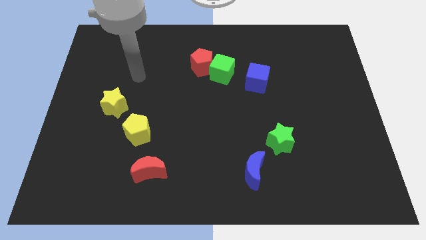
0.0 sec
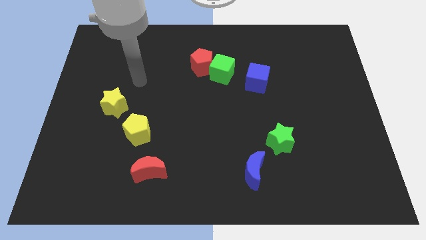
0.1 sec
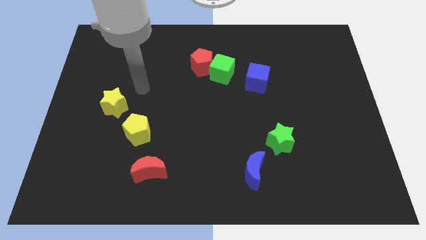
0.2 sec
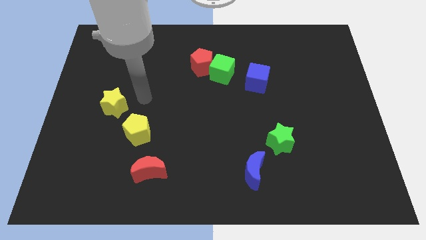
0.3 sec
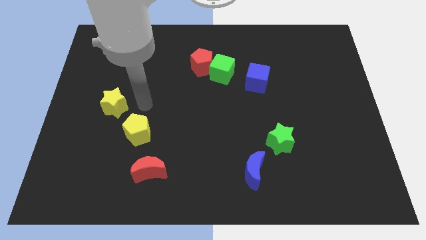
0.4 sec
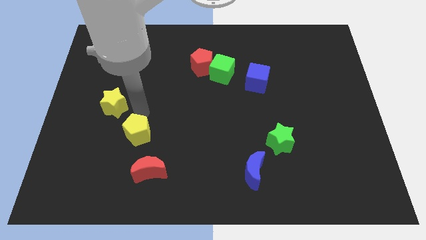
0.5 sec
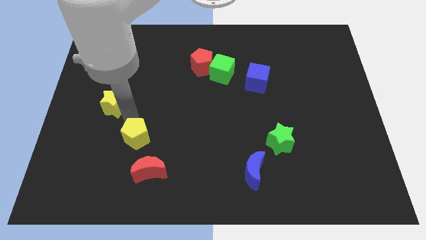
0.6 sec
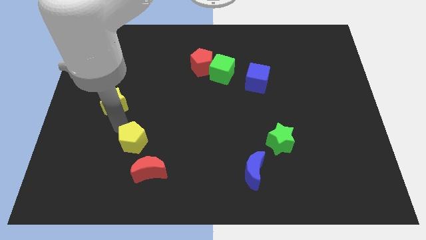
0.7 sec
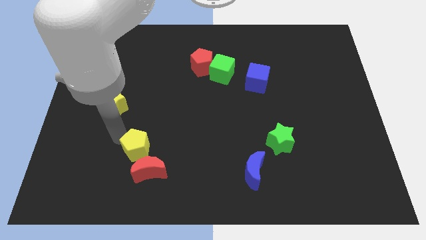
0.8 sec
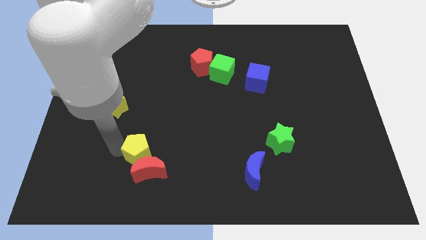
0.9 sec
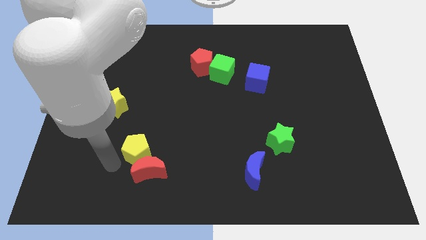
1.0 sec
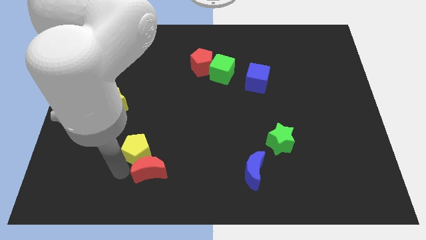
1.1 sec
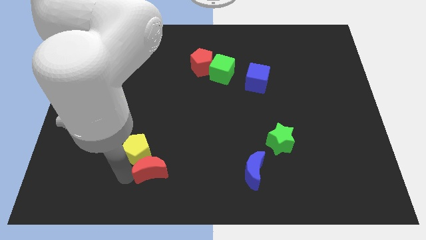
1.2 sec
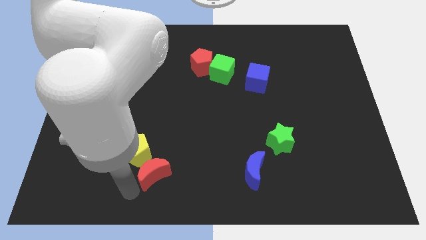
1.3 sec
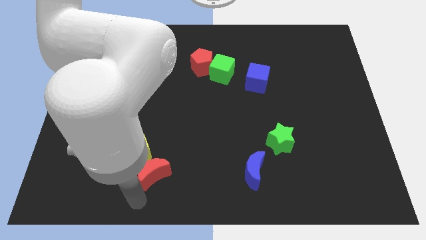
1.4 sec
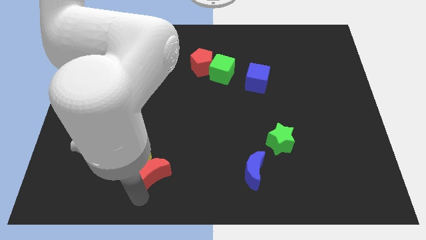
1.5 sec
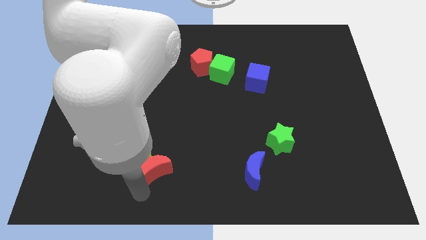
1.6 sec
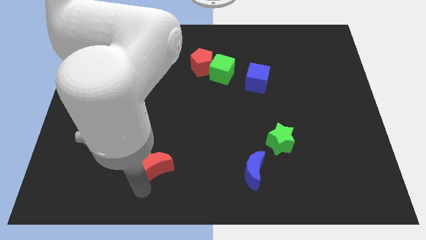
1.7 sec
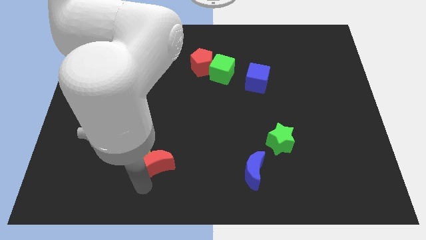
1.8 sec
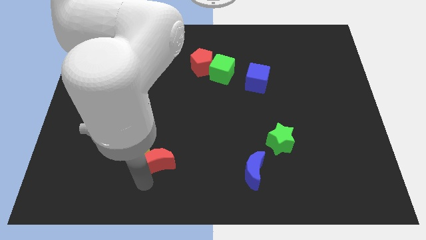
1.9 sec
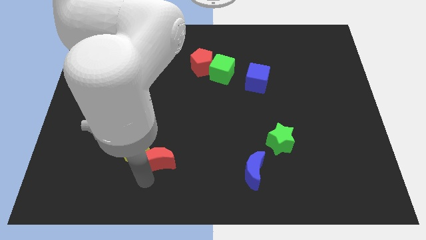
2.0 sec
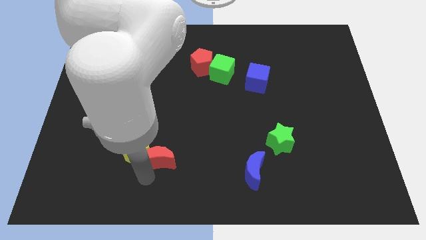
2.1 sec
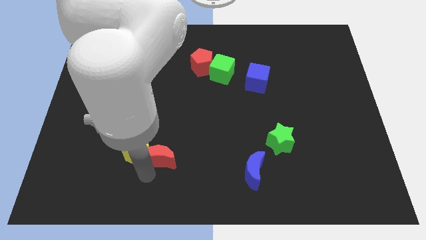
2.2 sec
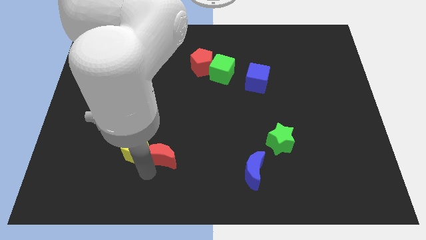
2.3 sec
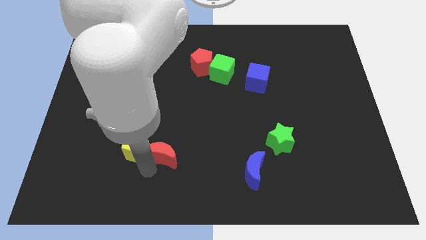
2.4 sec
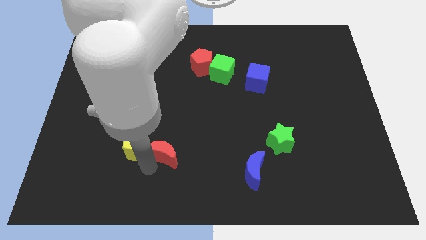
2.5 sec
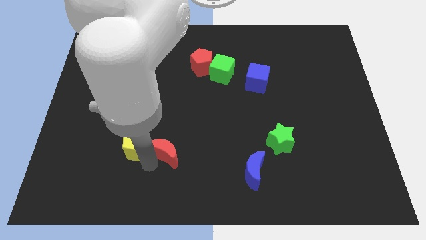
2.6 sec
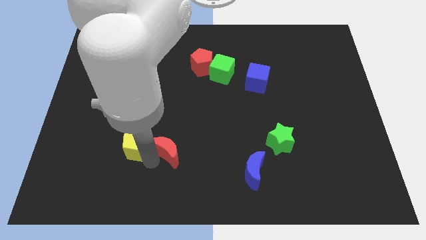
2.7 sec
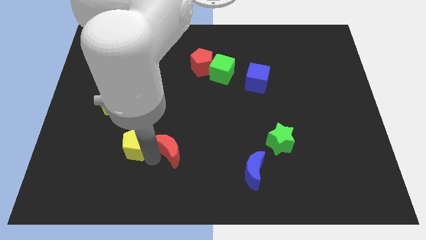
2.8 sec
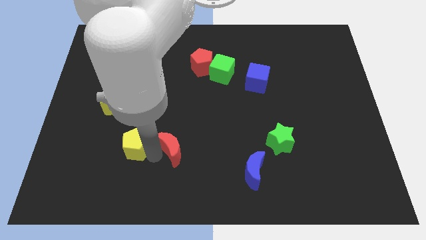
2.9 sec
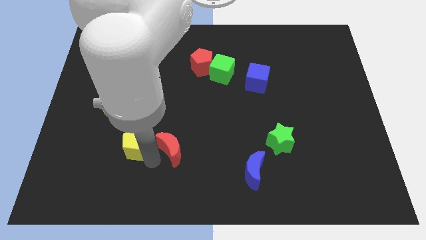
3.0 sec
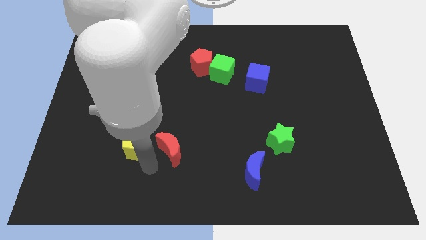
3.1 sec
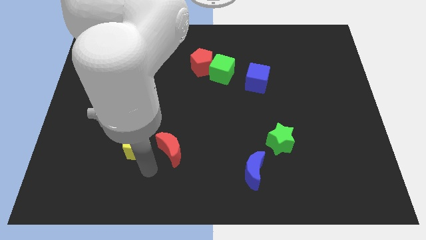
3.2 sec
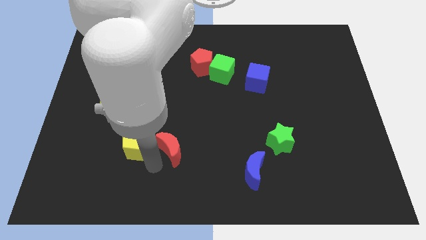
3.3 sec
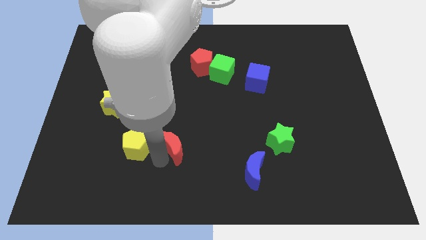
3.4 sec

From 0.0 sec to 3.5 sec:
slightly push the red moon upwards and to the right

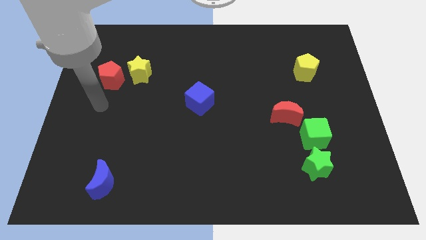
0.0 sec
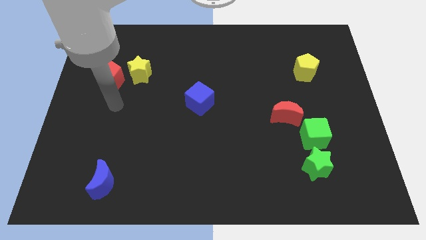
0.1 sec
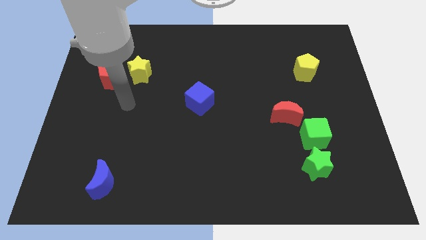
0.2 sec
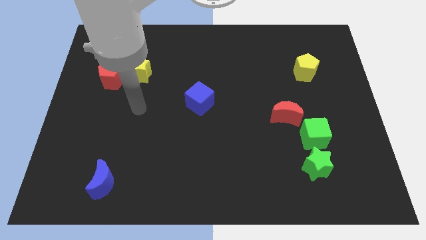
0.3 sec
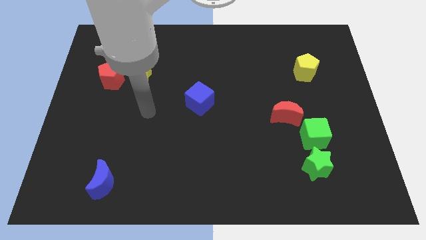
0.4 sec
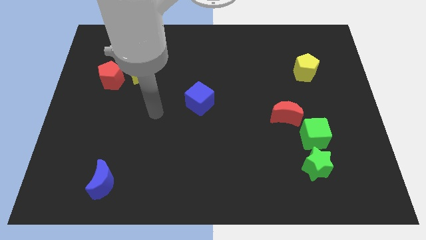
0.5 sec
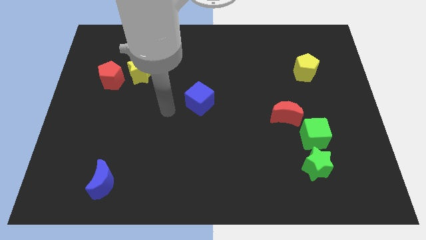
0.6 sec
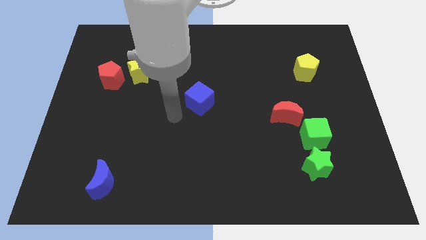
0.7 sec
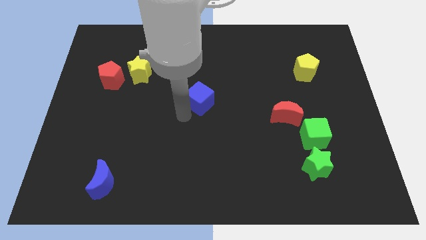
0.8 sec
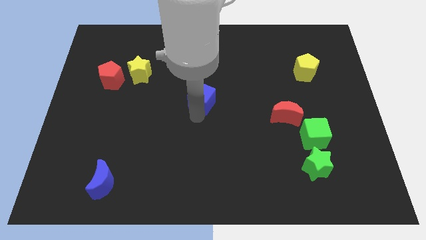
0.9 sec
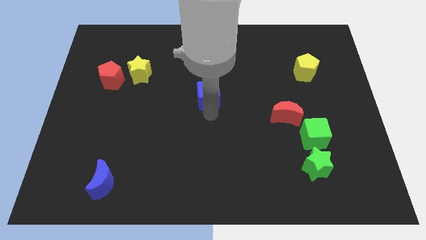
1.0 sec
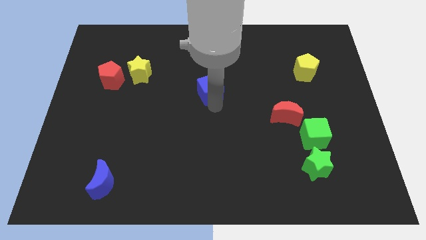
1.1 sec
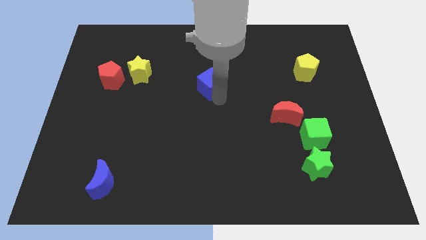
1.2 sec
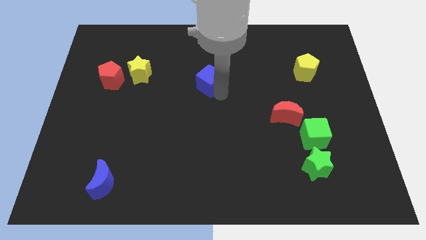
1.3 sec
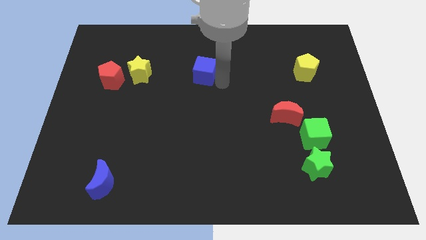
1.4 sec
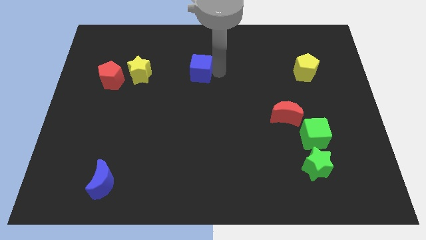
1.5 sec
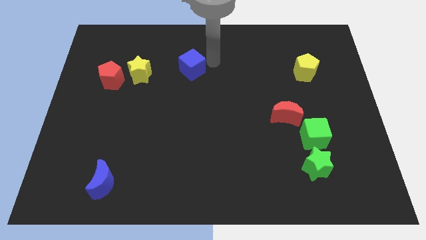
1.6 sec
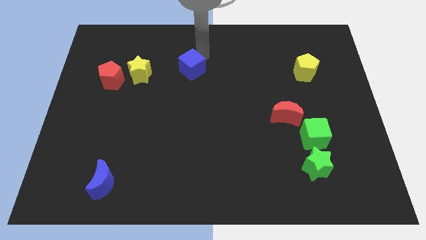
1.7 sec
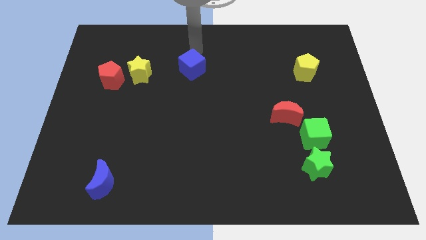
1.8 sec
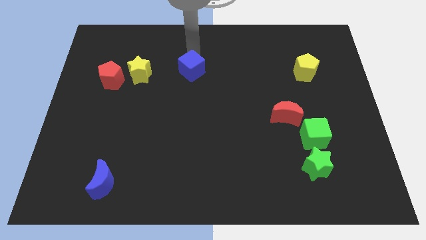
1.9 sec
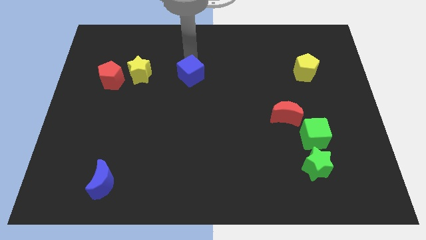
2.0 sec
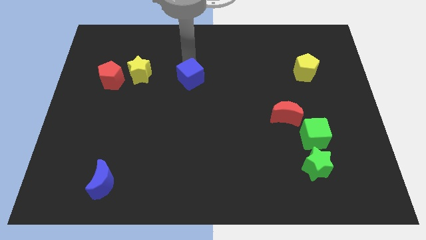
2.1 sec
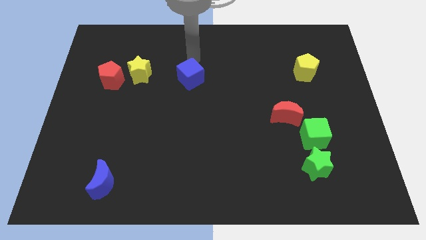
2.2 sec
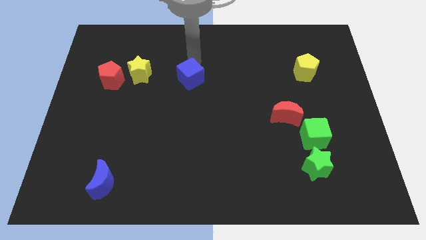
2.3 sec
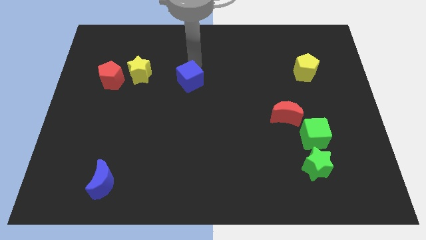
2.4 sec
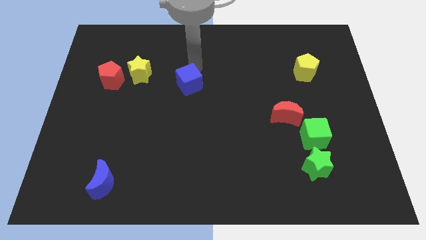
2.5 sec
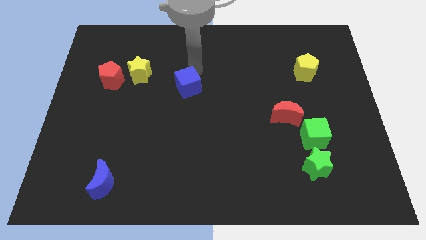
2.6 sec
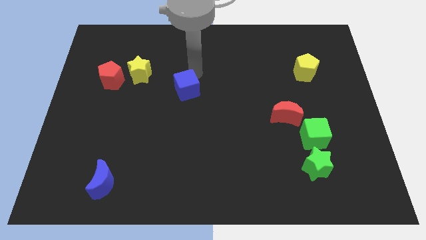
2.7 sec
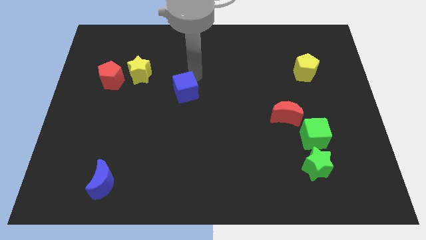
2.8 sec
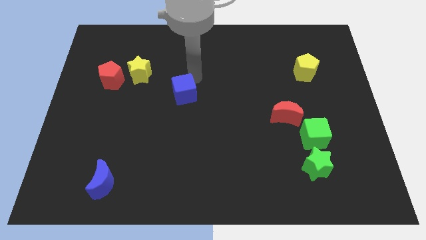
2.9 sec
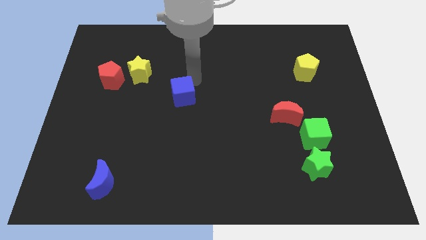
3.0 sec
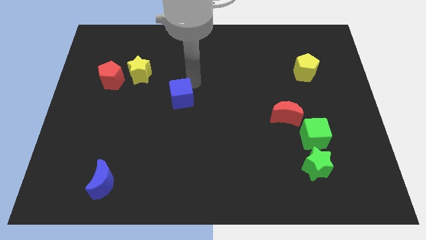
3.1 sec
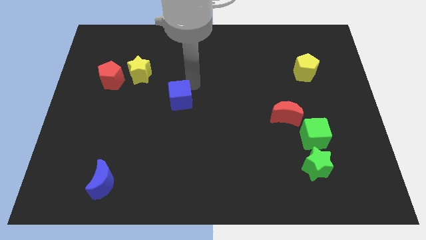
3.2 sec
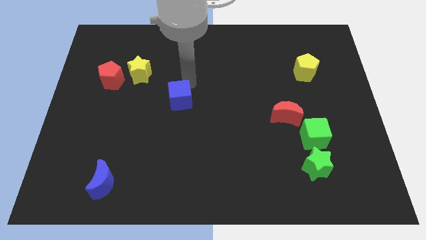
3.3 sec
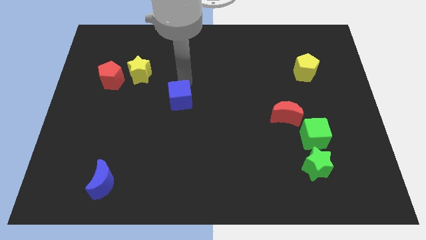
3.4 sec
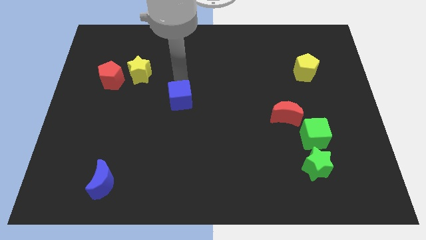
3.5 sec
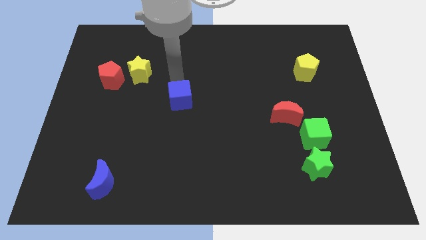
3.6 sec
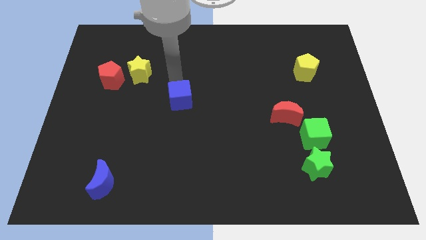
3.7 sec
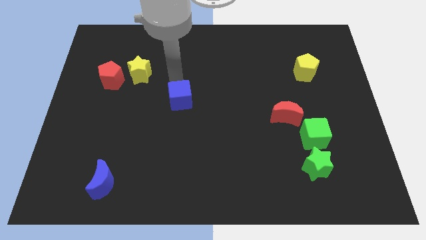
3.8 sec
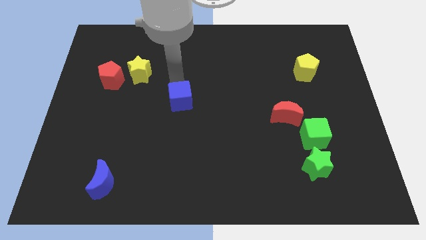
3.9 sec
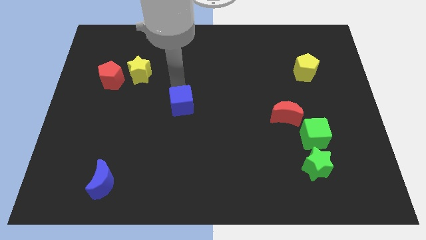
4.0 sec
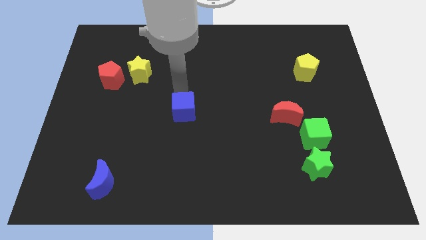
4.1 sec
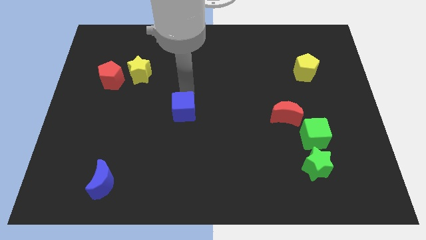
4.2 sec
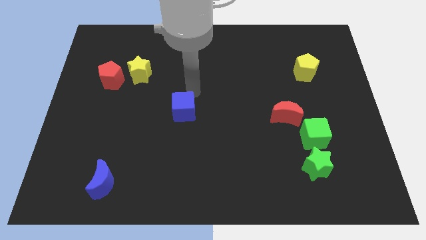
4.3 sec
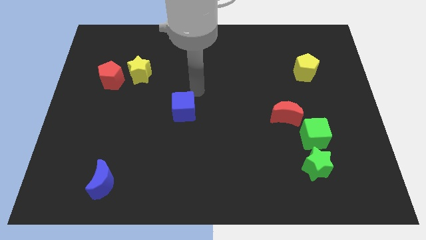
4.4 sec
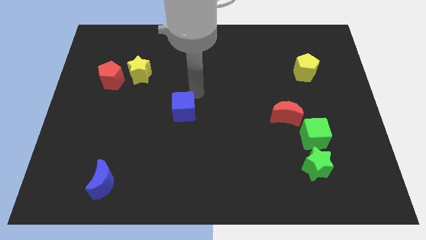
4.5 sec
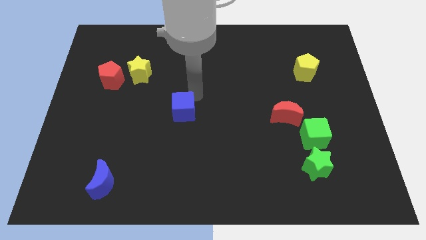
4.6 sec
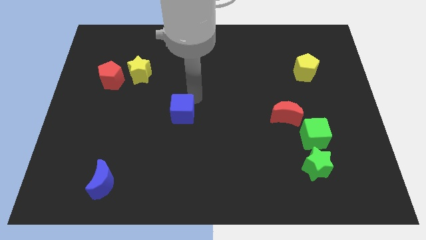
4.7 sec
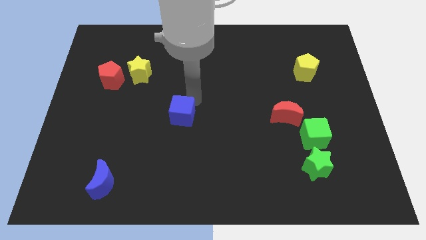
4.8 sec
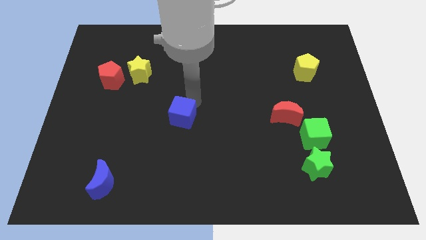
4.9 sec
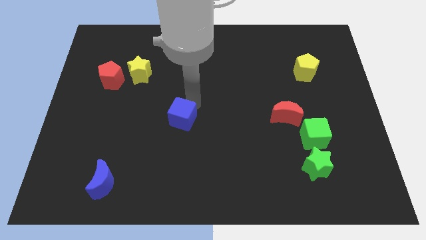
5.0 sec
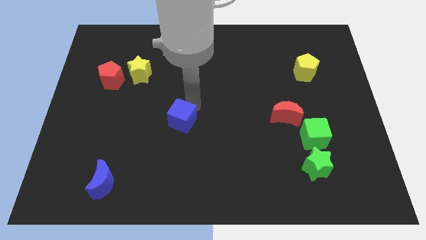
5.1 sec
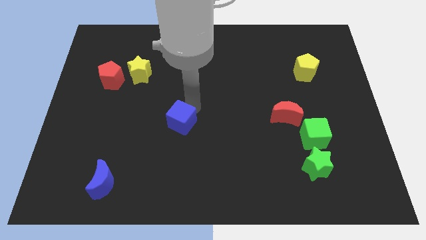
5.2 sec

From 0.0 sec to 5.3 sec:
slightly push the blue cube downwards and then to the left
